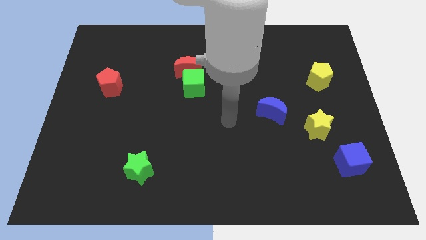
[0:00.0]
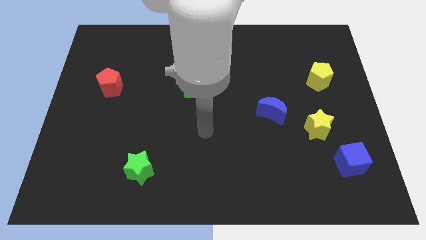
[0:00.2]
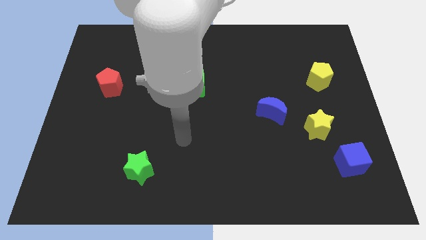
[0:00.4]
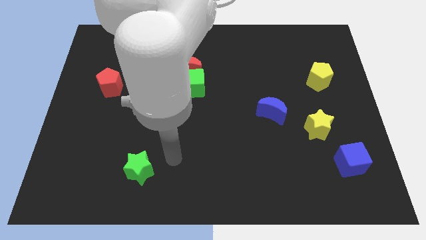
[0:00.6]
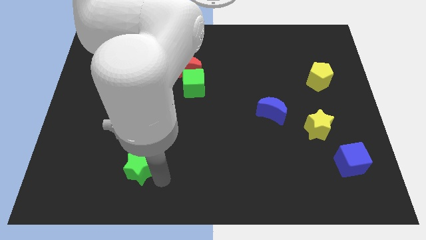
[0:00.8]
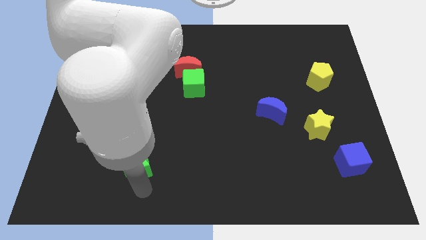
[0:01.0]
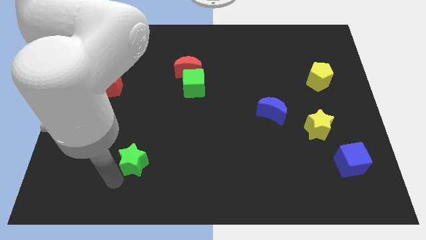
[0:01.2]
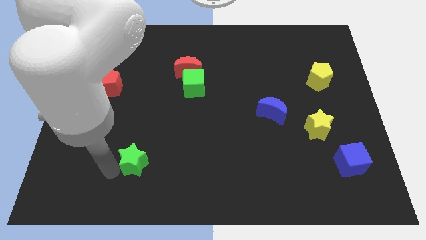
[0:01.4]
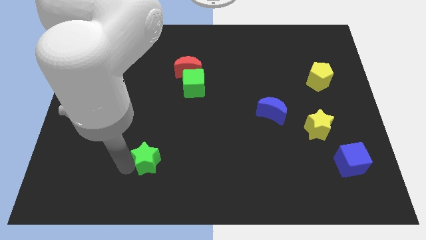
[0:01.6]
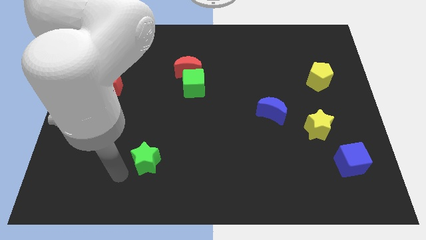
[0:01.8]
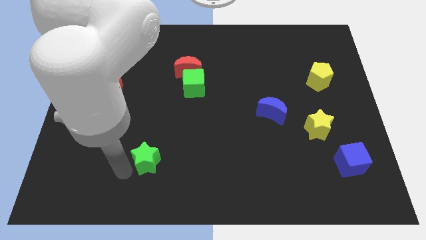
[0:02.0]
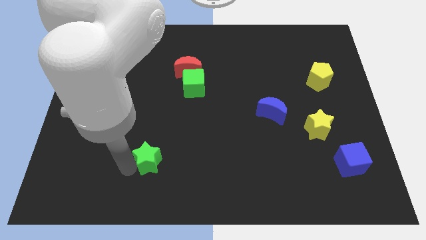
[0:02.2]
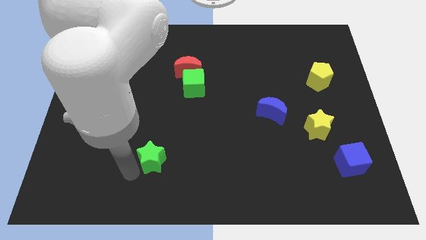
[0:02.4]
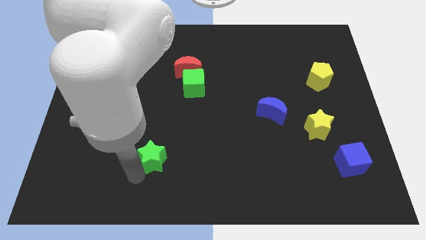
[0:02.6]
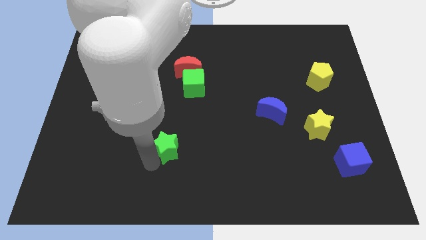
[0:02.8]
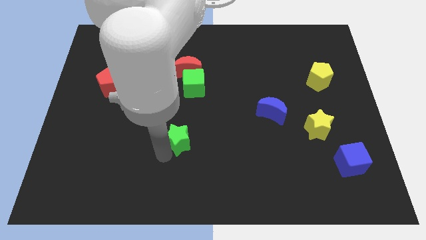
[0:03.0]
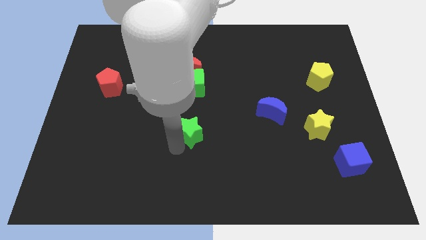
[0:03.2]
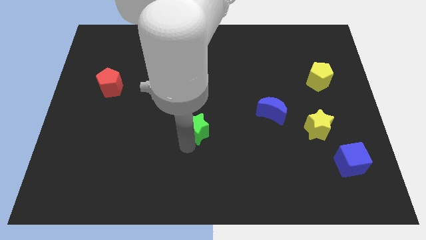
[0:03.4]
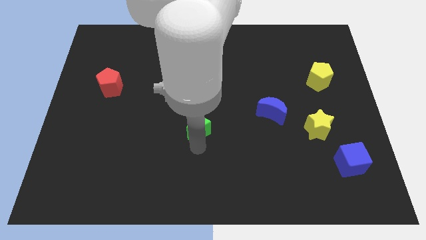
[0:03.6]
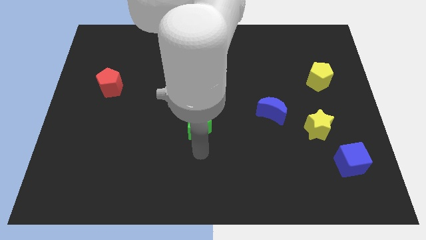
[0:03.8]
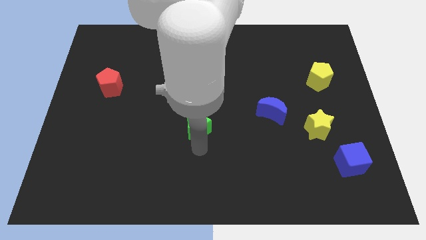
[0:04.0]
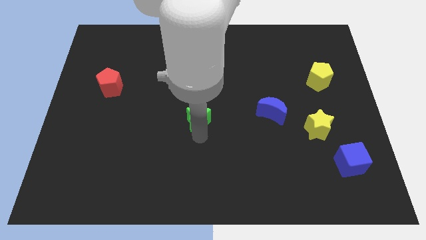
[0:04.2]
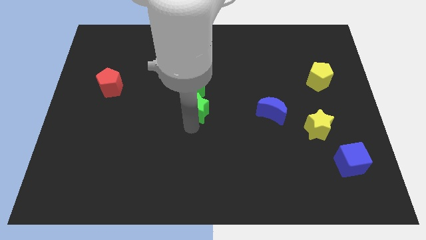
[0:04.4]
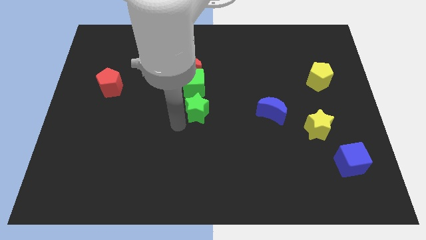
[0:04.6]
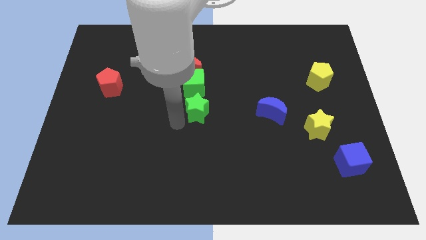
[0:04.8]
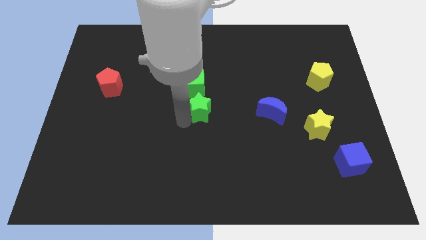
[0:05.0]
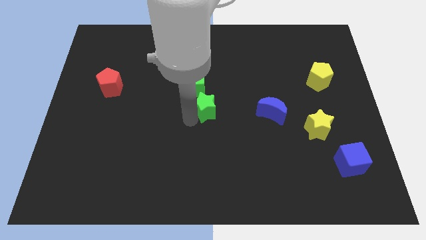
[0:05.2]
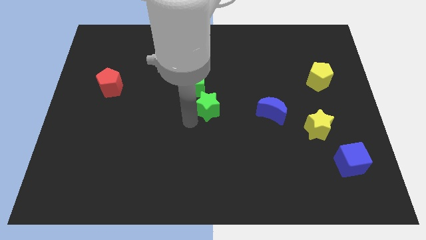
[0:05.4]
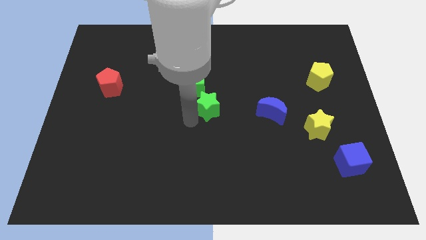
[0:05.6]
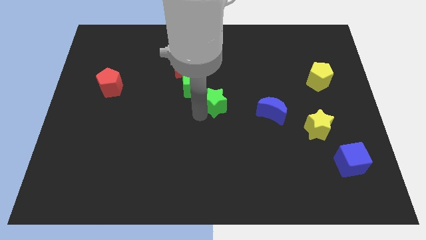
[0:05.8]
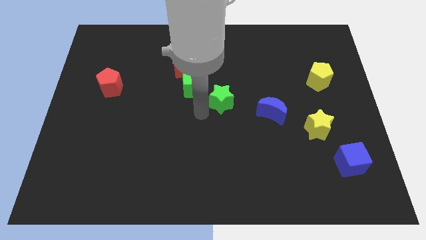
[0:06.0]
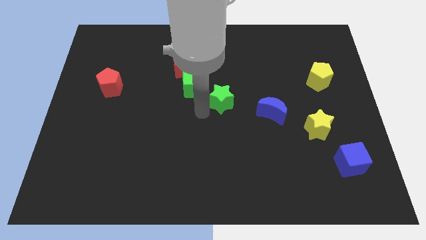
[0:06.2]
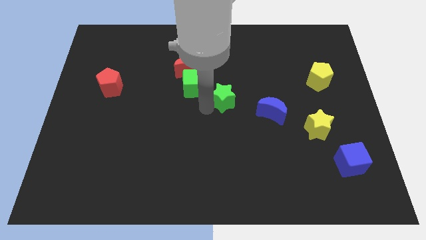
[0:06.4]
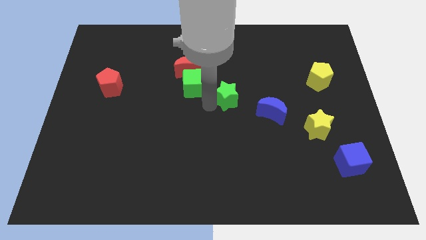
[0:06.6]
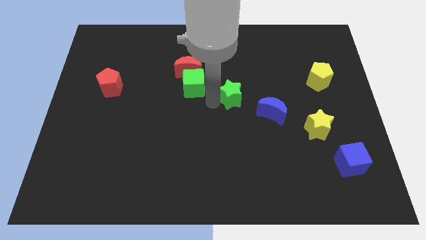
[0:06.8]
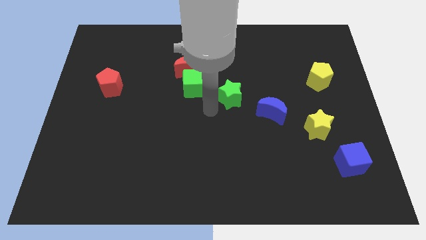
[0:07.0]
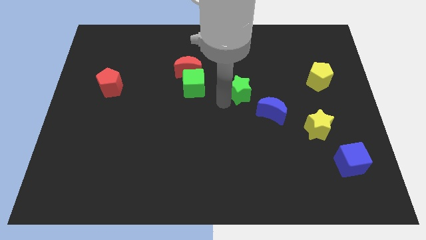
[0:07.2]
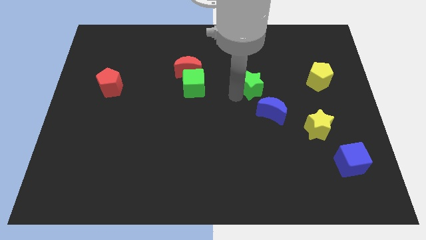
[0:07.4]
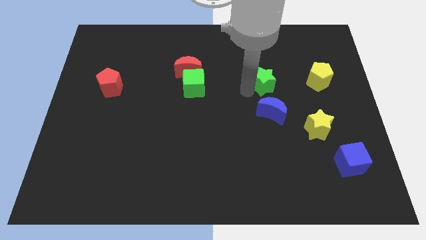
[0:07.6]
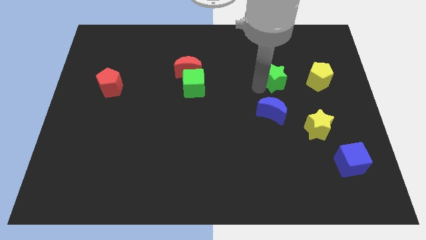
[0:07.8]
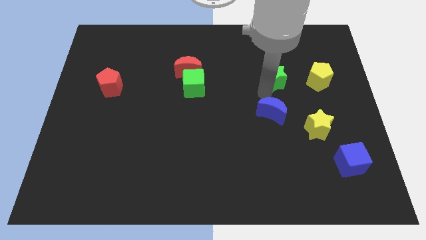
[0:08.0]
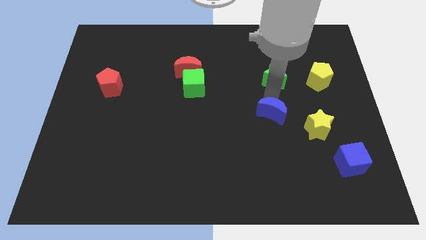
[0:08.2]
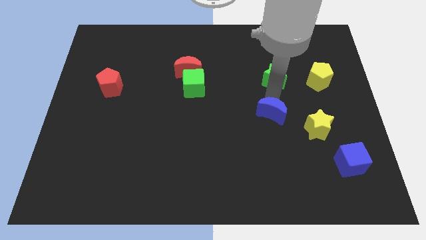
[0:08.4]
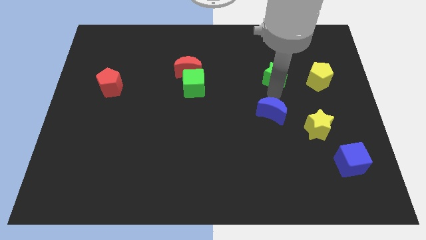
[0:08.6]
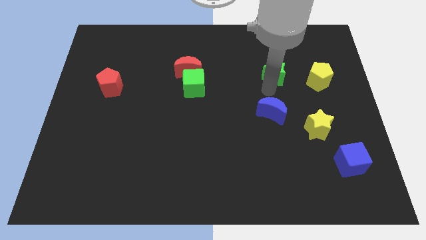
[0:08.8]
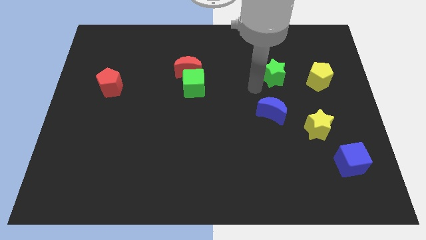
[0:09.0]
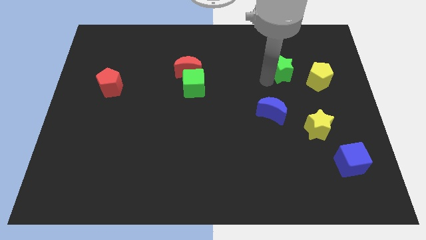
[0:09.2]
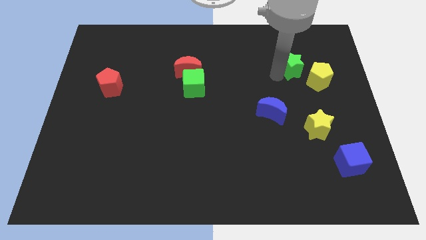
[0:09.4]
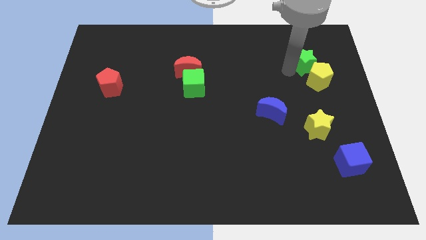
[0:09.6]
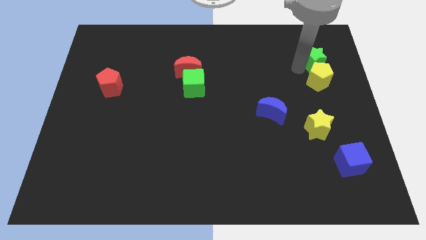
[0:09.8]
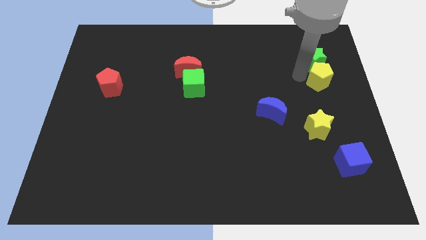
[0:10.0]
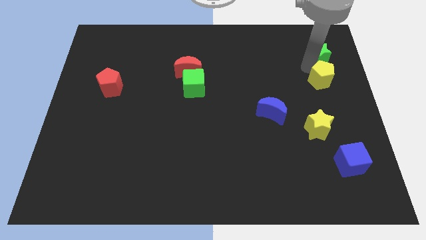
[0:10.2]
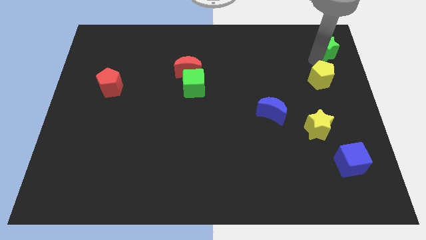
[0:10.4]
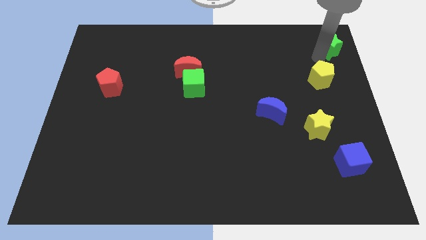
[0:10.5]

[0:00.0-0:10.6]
move the green star to the top right of the board
